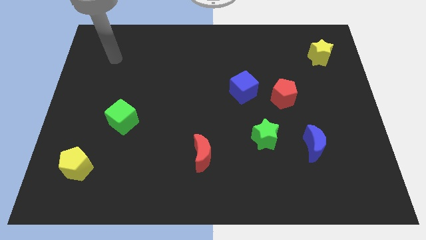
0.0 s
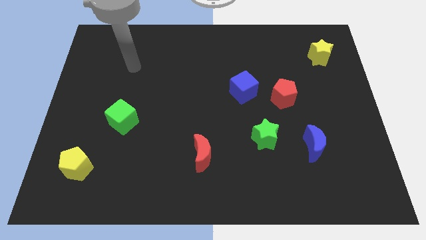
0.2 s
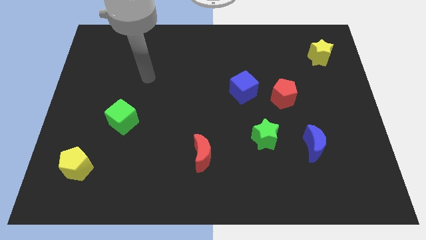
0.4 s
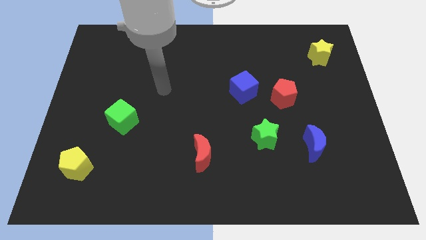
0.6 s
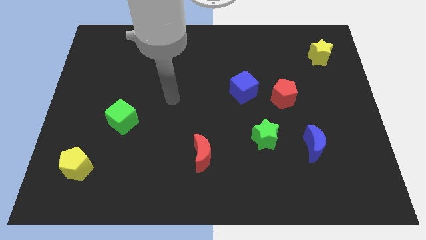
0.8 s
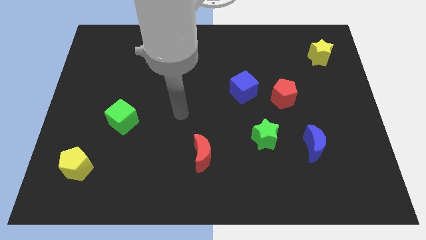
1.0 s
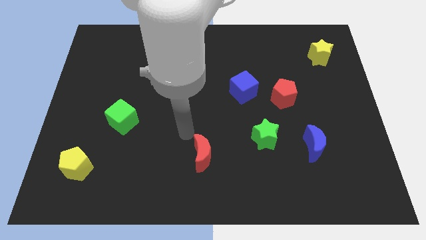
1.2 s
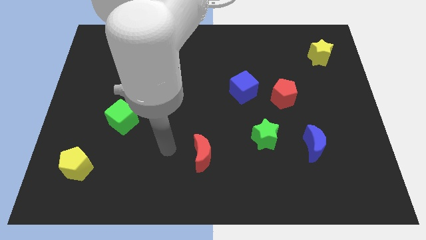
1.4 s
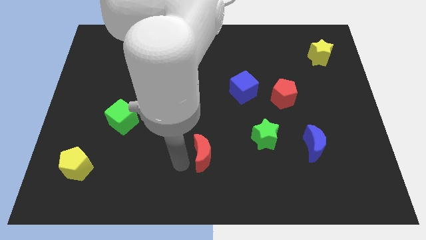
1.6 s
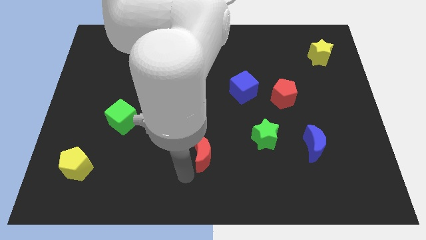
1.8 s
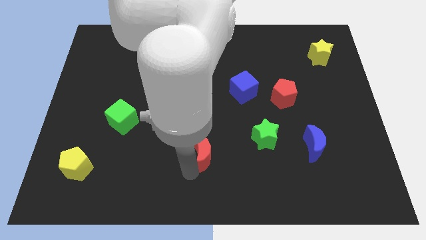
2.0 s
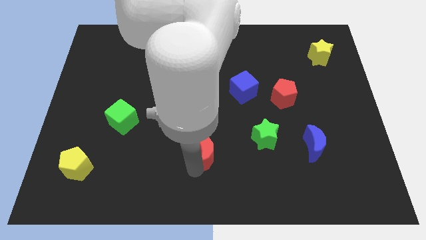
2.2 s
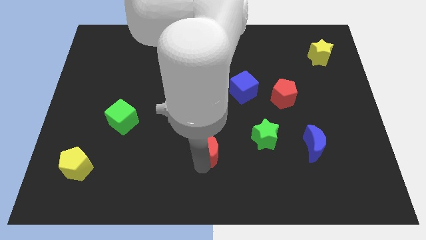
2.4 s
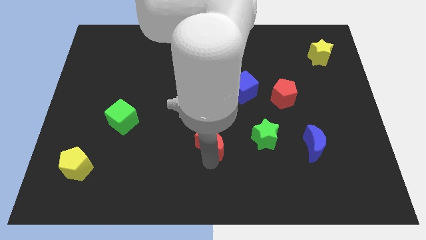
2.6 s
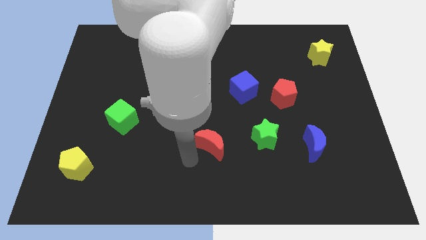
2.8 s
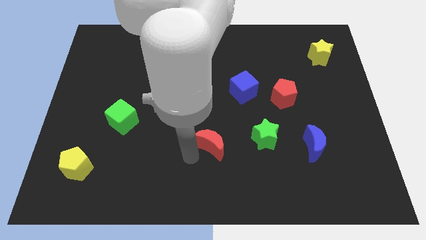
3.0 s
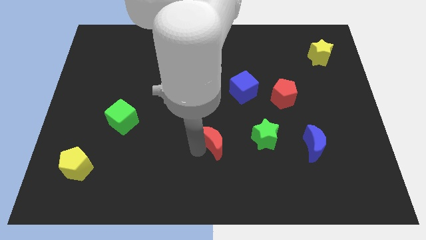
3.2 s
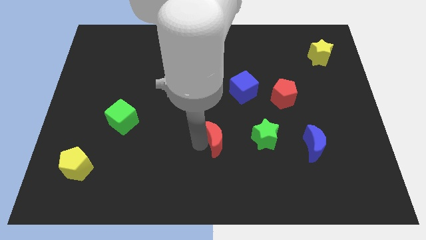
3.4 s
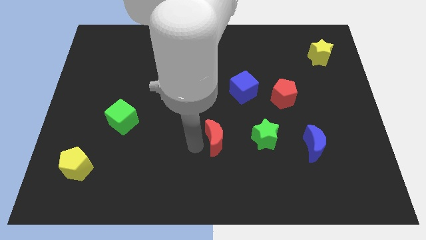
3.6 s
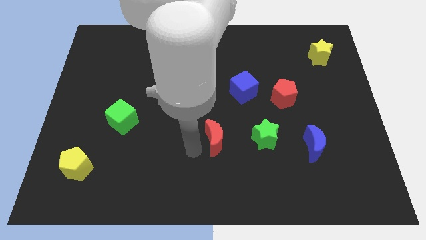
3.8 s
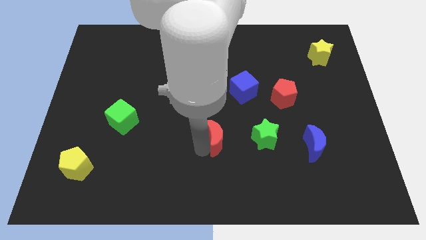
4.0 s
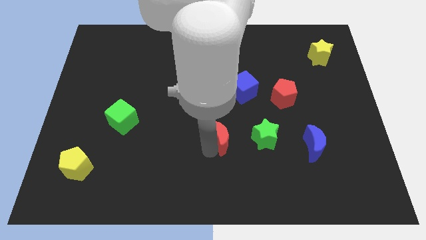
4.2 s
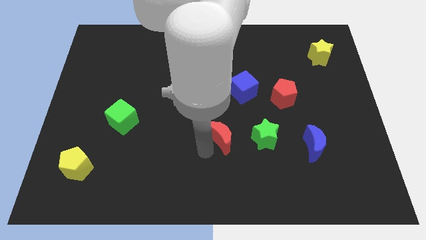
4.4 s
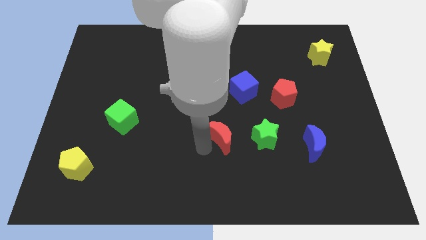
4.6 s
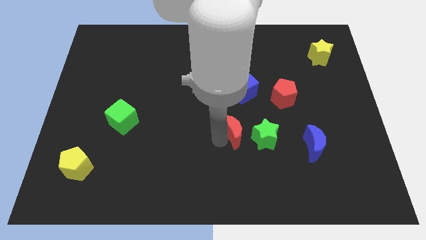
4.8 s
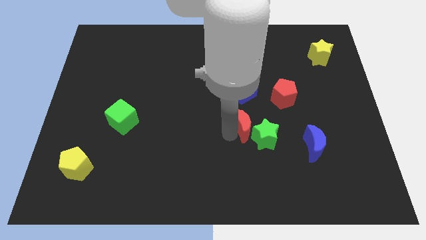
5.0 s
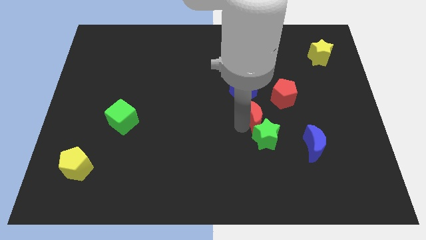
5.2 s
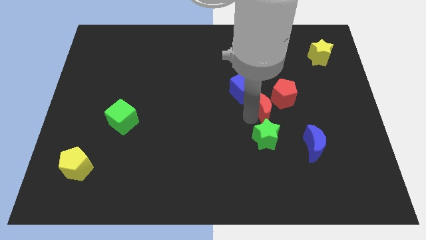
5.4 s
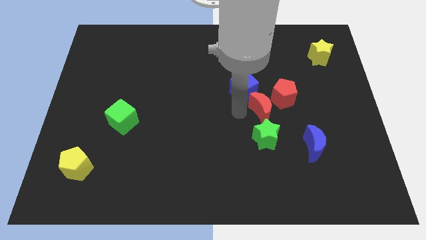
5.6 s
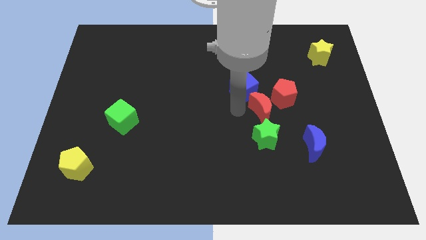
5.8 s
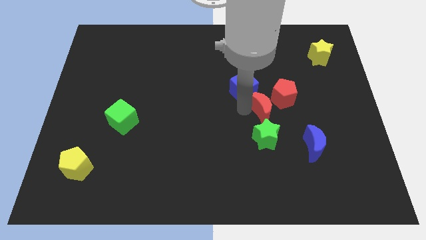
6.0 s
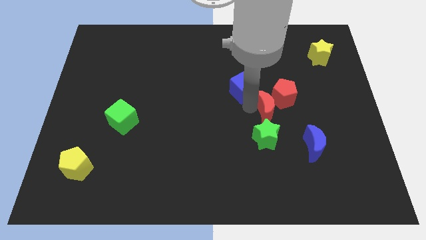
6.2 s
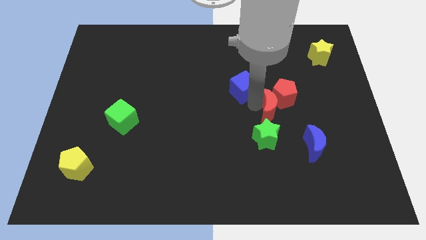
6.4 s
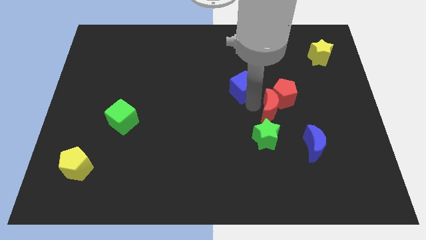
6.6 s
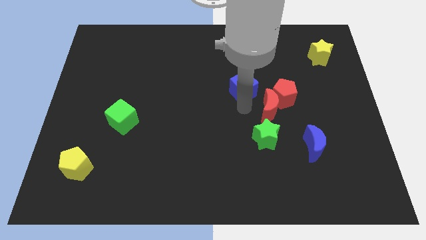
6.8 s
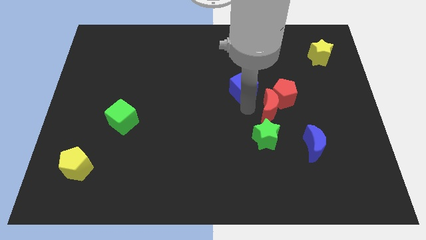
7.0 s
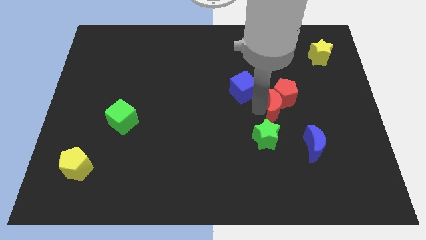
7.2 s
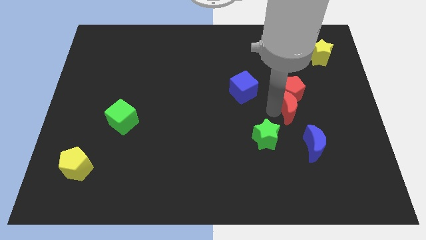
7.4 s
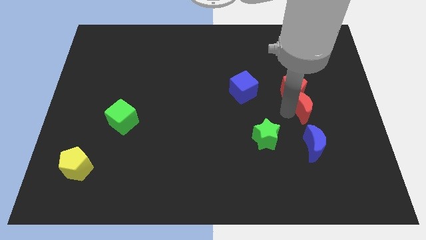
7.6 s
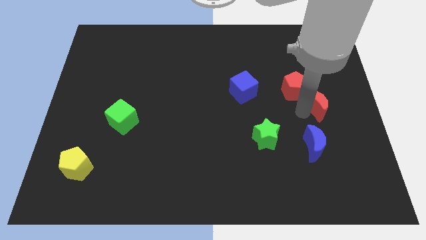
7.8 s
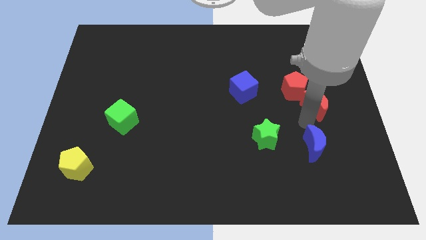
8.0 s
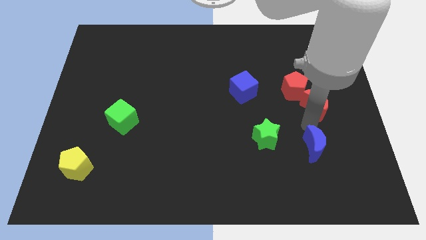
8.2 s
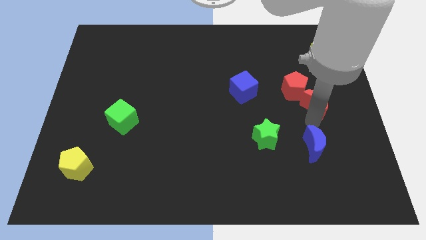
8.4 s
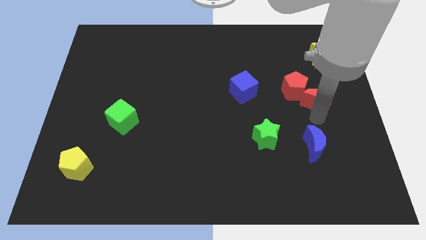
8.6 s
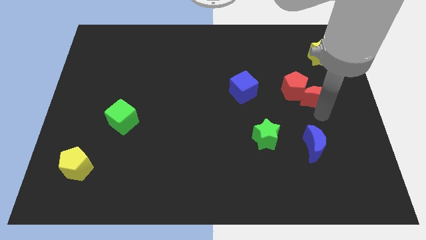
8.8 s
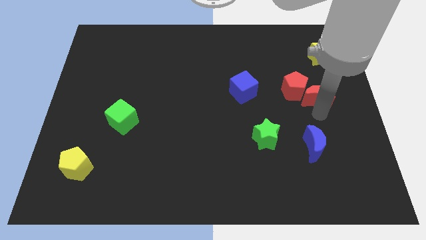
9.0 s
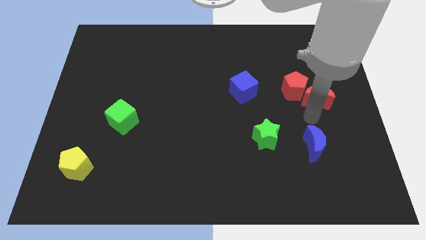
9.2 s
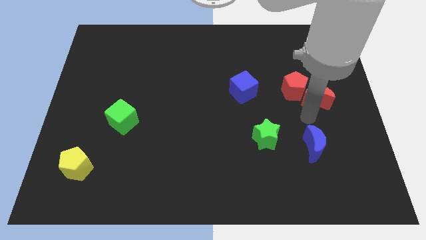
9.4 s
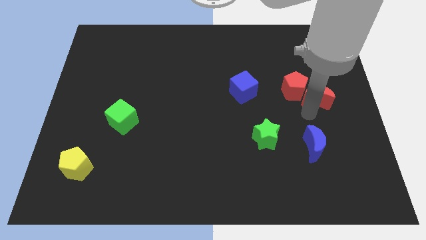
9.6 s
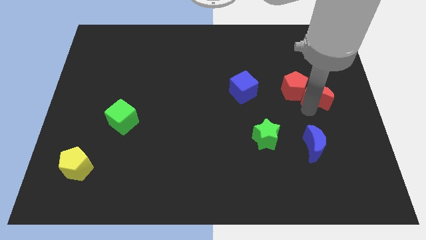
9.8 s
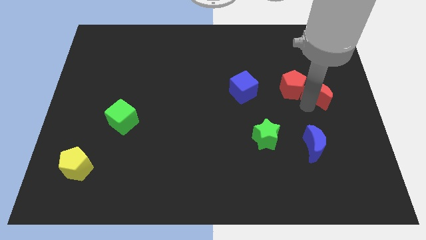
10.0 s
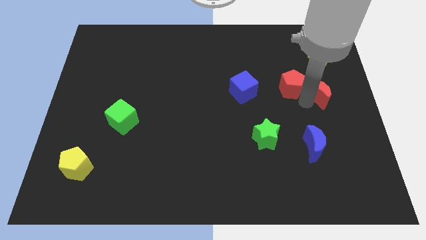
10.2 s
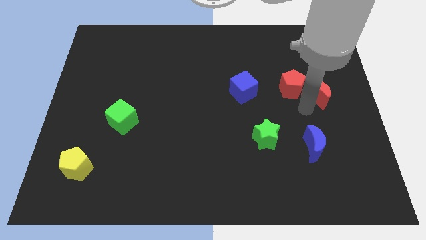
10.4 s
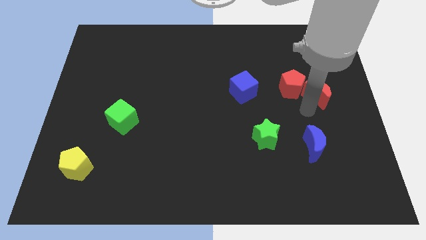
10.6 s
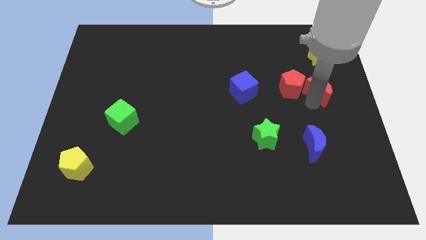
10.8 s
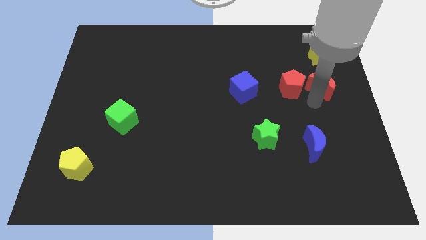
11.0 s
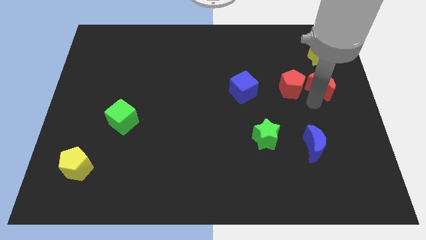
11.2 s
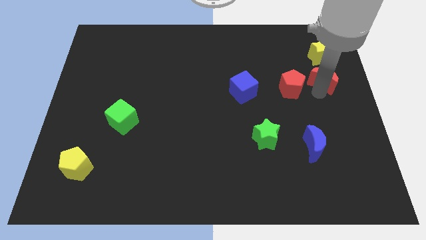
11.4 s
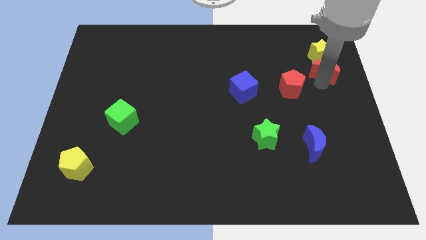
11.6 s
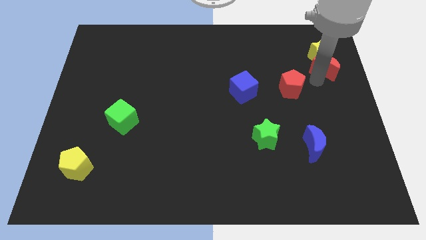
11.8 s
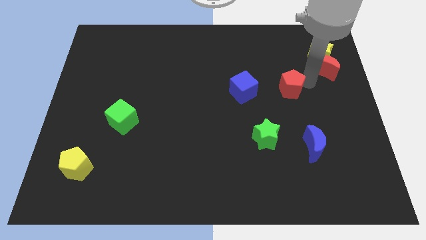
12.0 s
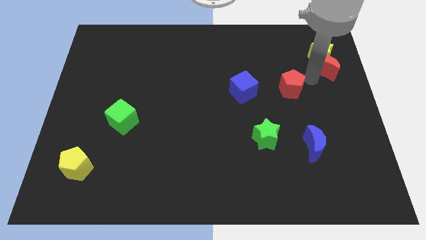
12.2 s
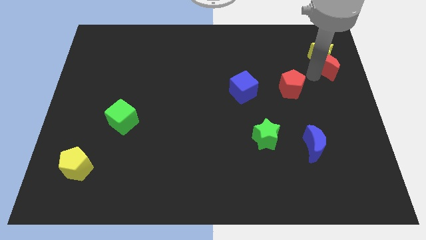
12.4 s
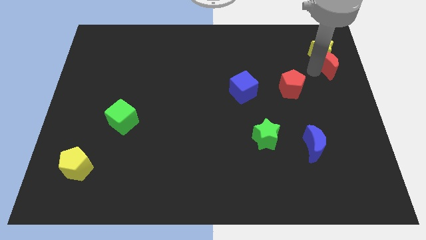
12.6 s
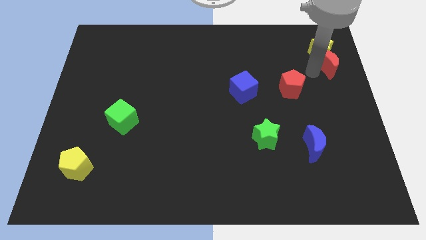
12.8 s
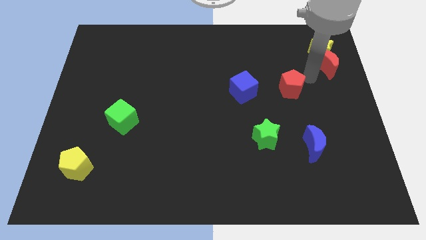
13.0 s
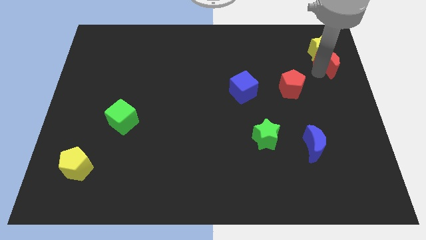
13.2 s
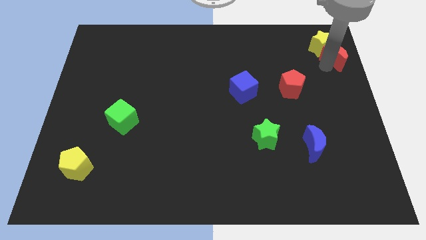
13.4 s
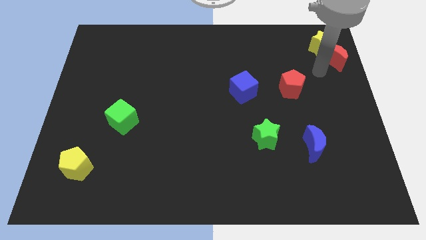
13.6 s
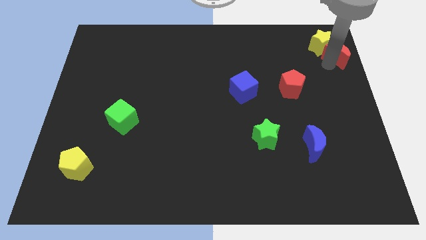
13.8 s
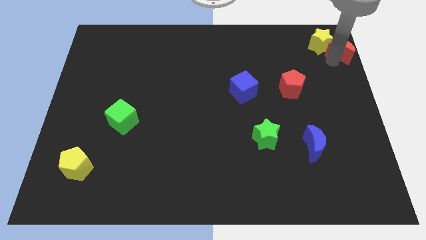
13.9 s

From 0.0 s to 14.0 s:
put the red moon to the upper right corner
